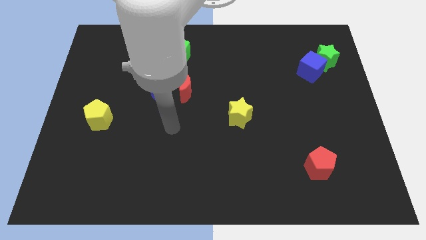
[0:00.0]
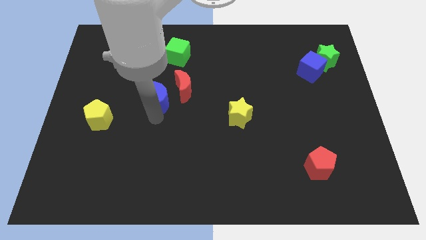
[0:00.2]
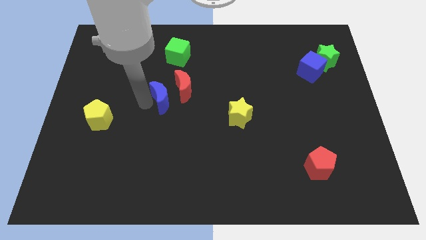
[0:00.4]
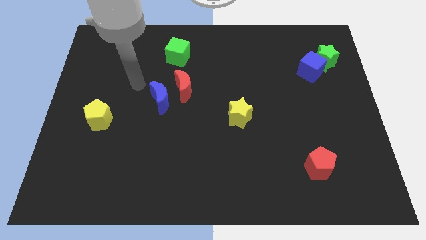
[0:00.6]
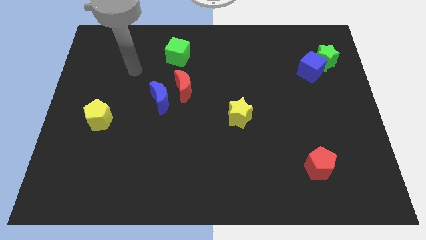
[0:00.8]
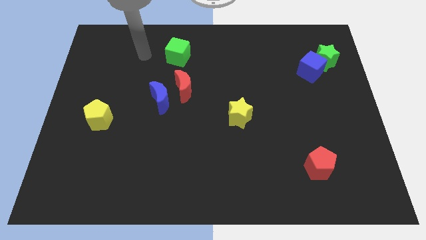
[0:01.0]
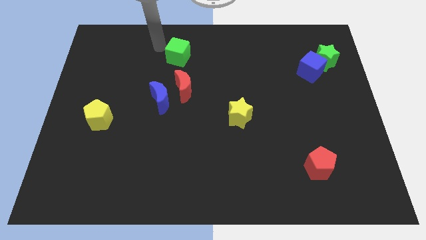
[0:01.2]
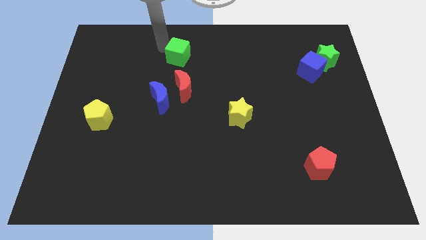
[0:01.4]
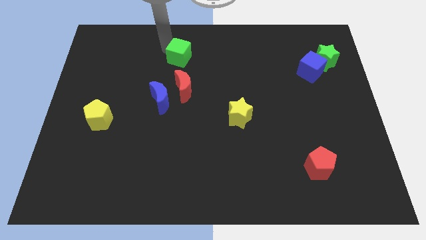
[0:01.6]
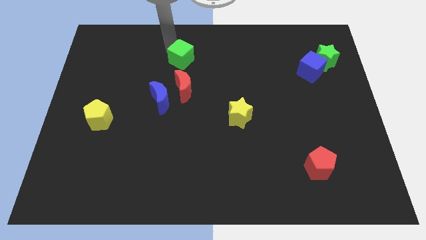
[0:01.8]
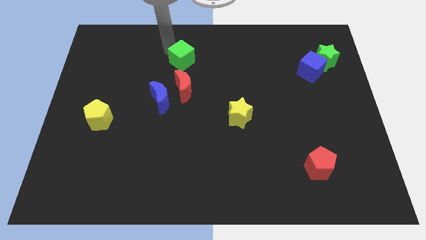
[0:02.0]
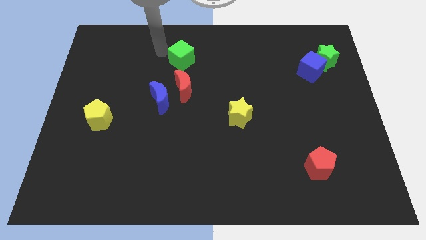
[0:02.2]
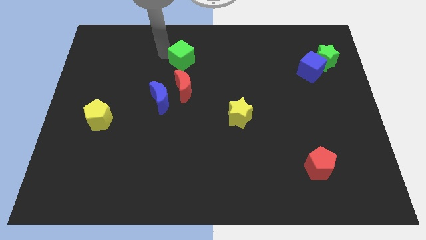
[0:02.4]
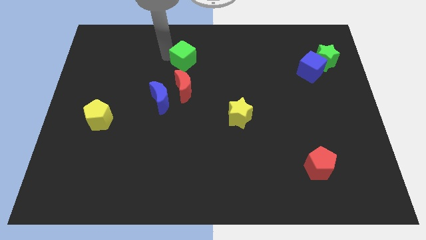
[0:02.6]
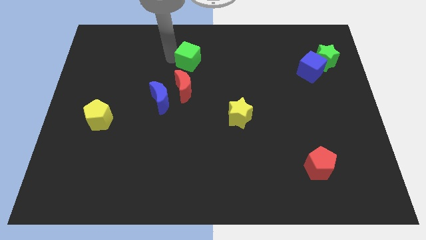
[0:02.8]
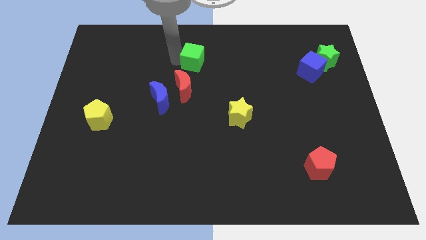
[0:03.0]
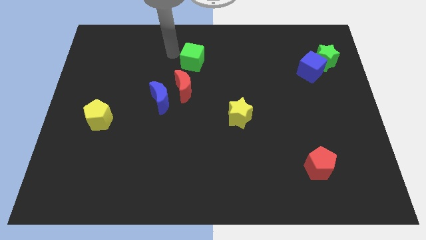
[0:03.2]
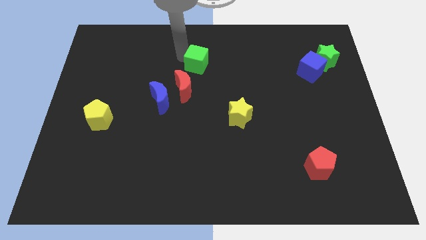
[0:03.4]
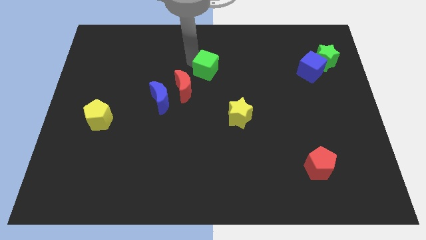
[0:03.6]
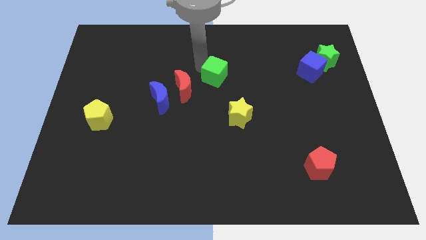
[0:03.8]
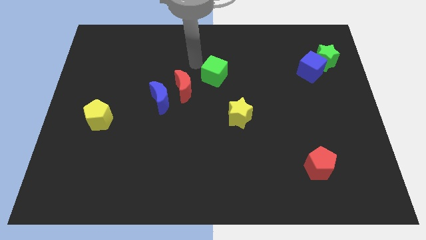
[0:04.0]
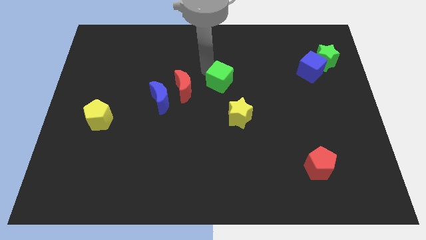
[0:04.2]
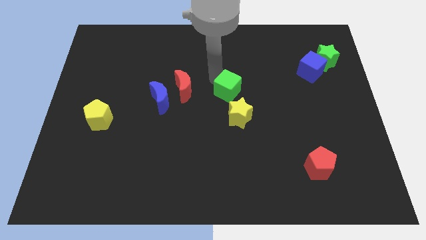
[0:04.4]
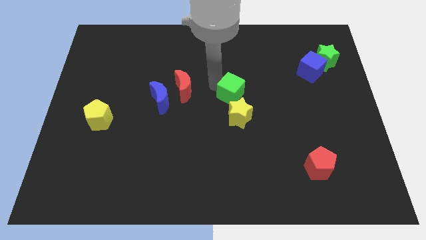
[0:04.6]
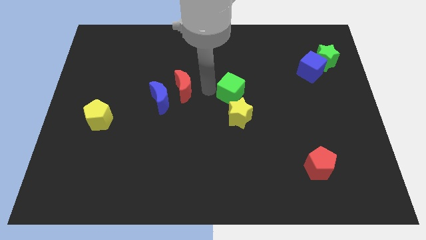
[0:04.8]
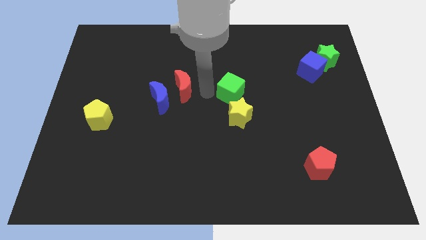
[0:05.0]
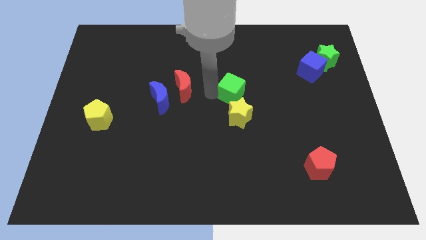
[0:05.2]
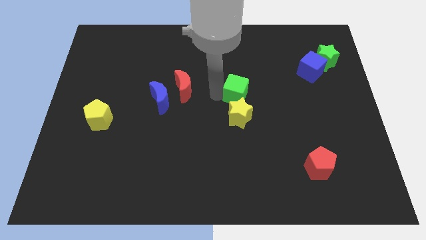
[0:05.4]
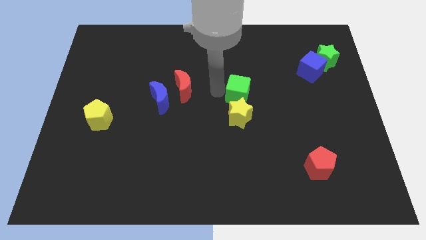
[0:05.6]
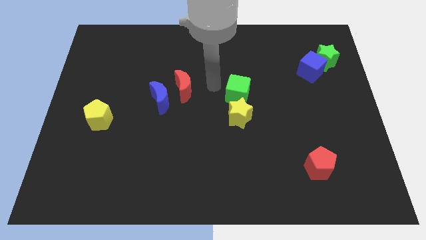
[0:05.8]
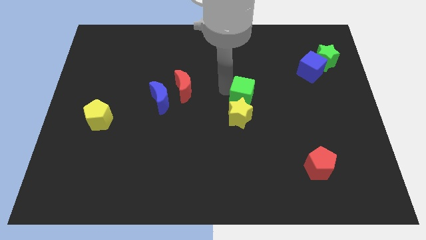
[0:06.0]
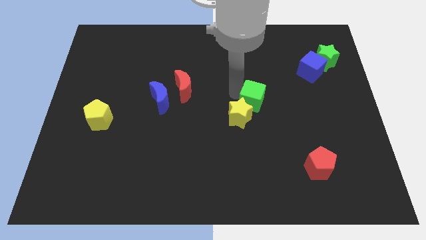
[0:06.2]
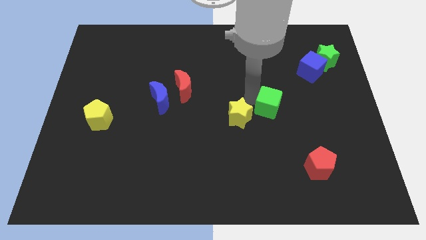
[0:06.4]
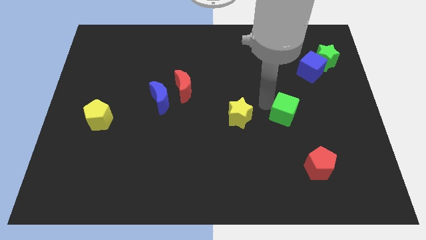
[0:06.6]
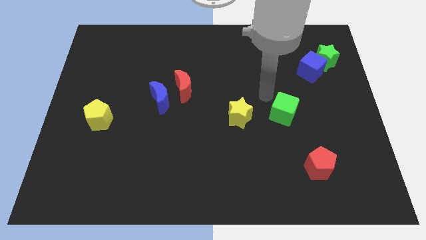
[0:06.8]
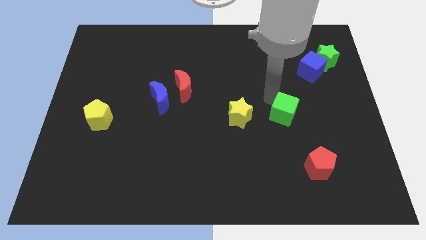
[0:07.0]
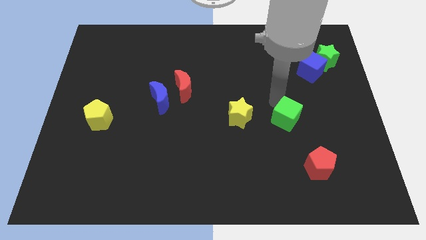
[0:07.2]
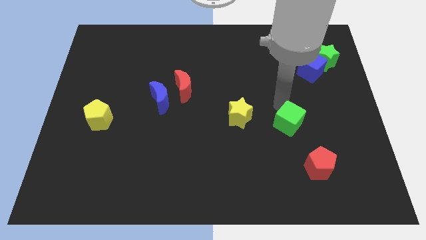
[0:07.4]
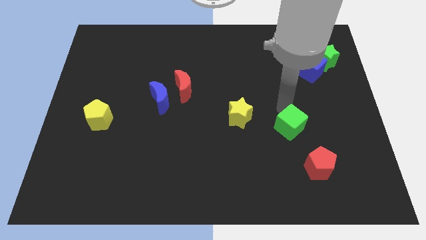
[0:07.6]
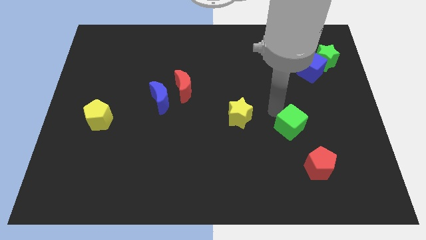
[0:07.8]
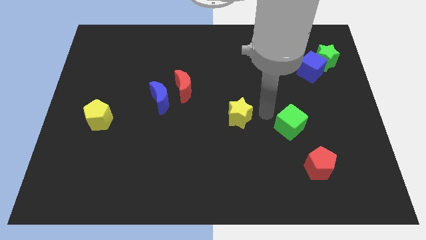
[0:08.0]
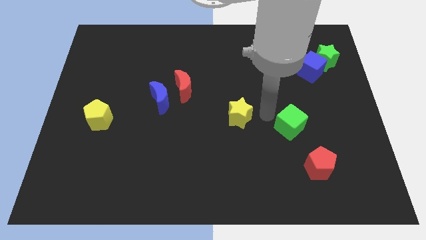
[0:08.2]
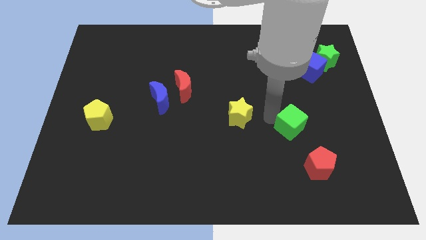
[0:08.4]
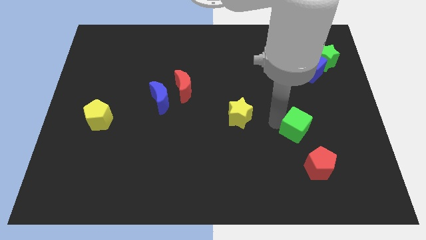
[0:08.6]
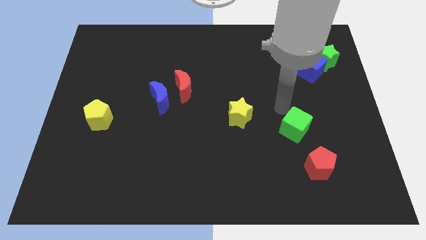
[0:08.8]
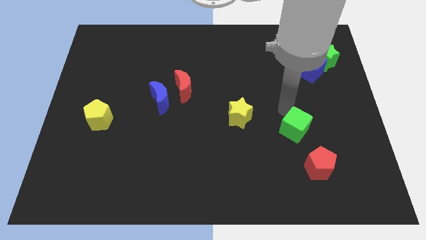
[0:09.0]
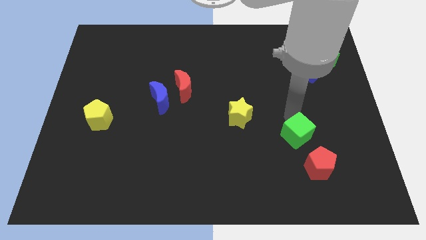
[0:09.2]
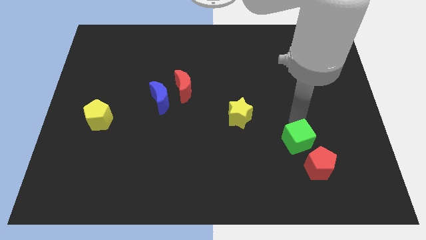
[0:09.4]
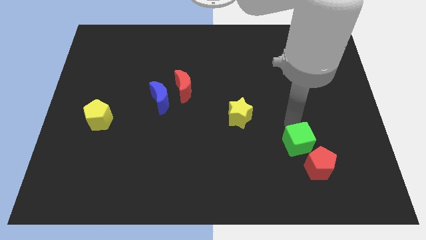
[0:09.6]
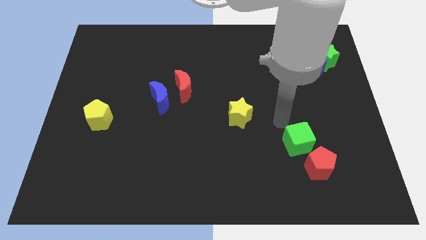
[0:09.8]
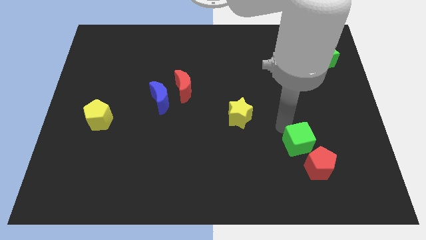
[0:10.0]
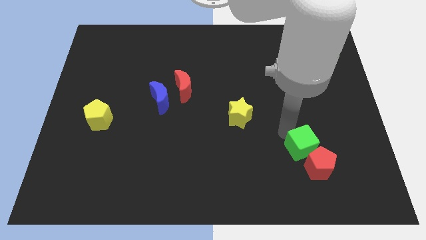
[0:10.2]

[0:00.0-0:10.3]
push the green cube to the red pentagon

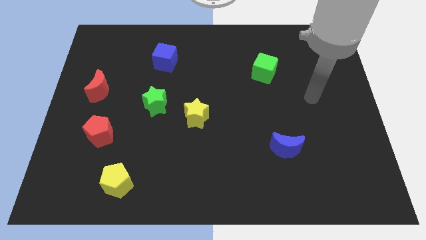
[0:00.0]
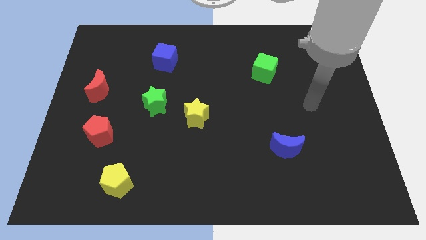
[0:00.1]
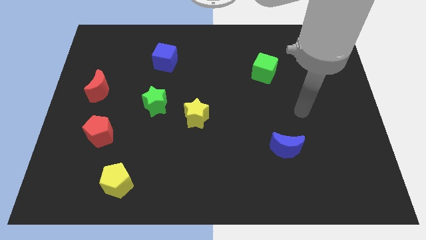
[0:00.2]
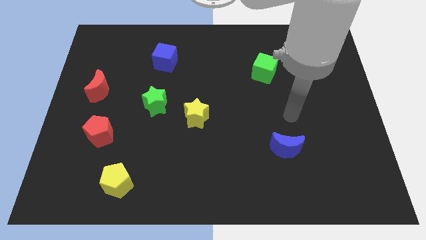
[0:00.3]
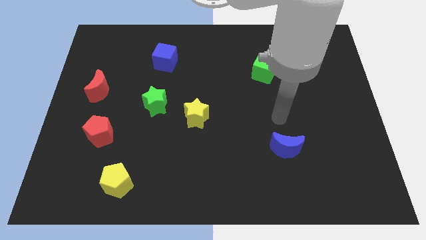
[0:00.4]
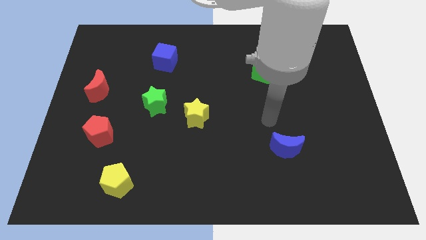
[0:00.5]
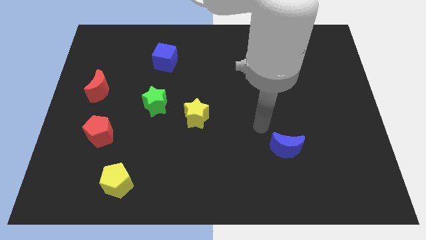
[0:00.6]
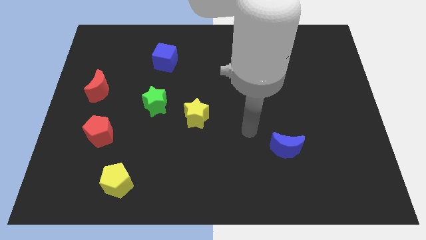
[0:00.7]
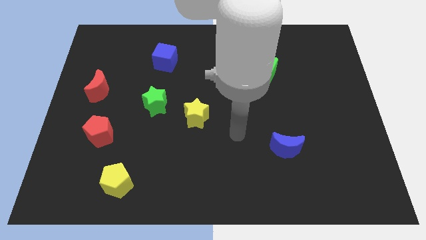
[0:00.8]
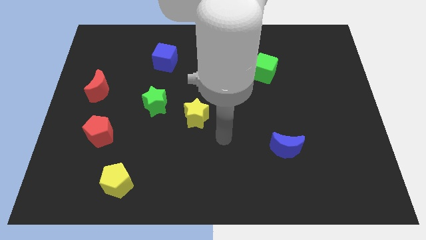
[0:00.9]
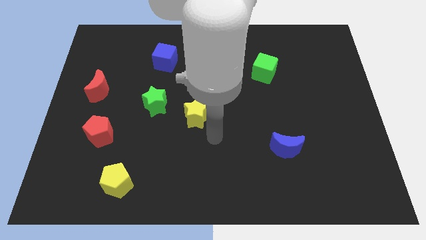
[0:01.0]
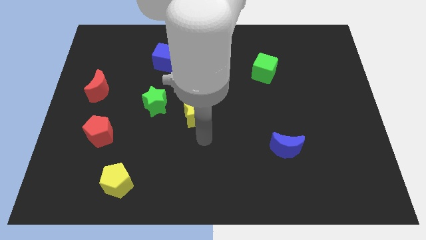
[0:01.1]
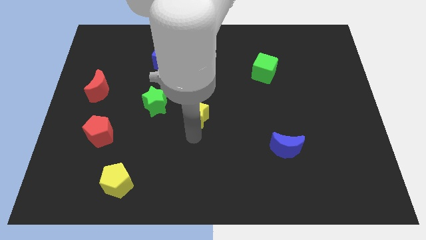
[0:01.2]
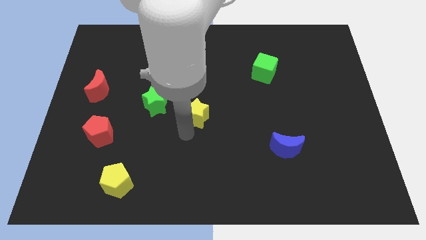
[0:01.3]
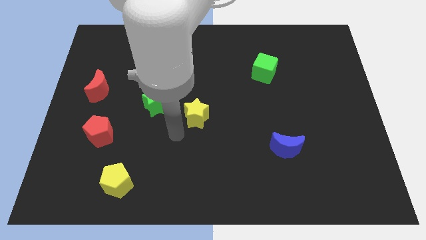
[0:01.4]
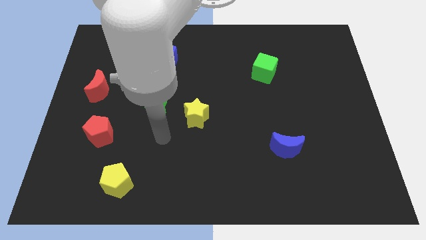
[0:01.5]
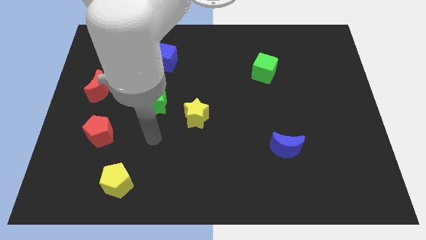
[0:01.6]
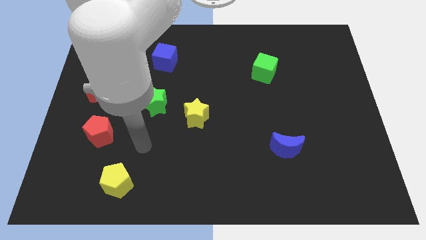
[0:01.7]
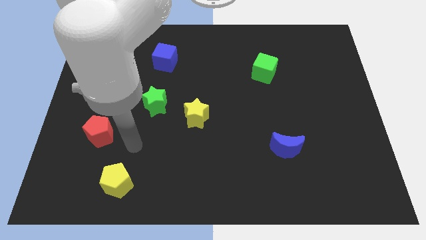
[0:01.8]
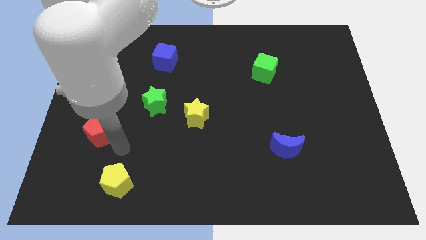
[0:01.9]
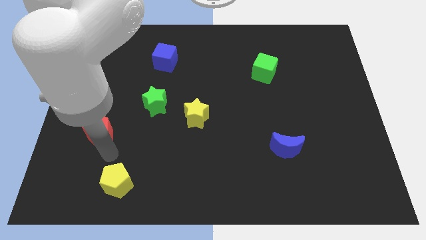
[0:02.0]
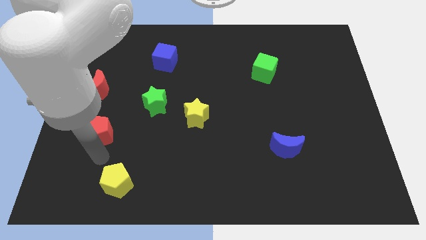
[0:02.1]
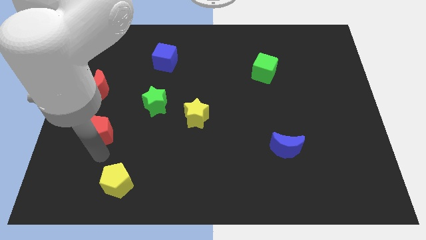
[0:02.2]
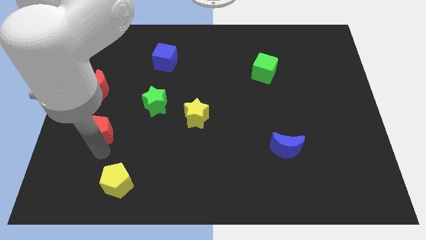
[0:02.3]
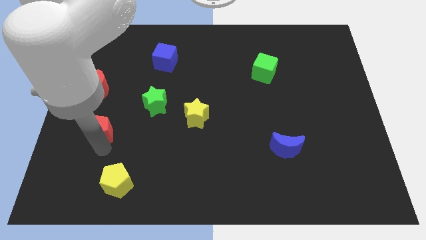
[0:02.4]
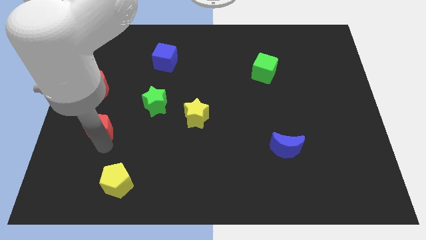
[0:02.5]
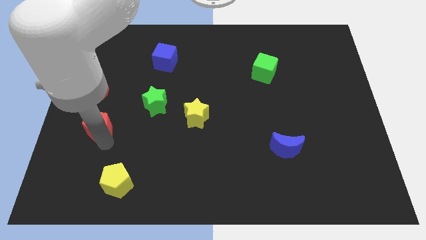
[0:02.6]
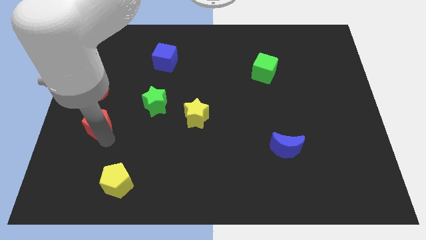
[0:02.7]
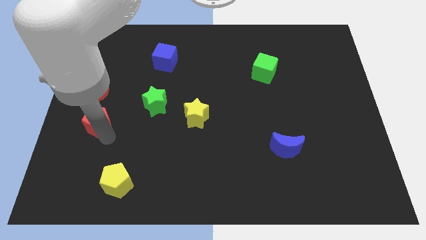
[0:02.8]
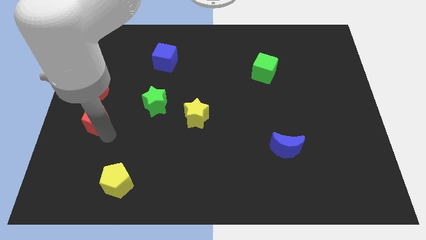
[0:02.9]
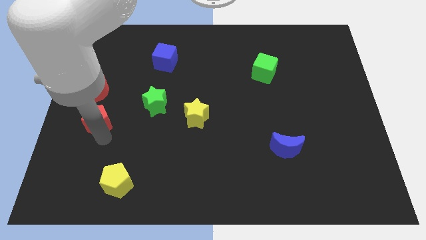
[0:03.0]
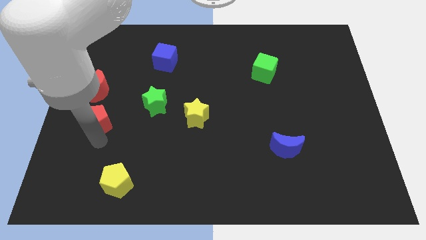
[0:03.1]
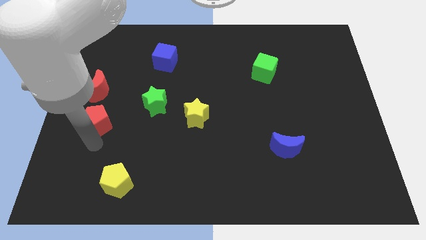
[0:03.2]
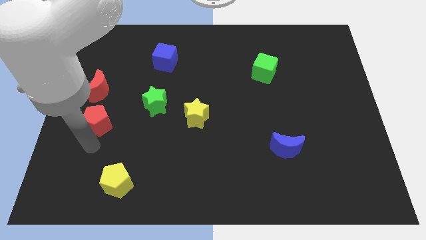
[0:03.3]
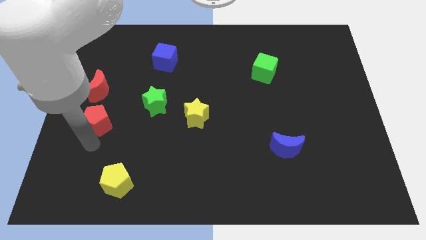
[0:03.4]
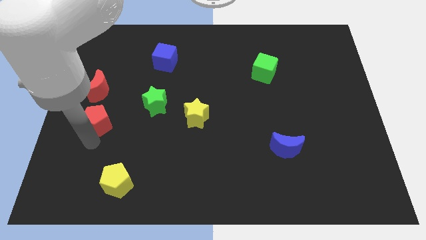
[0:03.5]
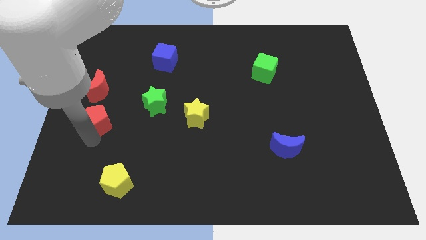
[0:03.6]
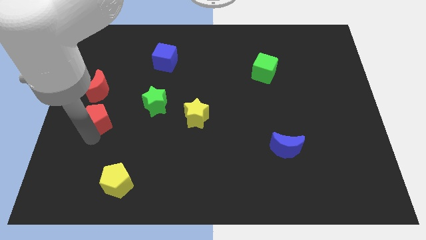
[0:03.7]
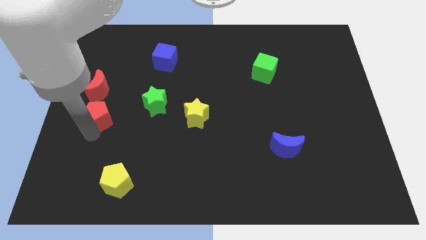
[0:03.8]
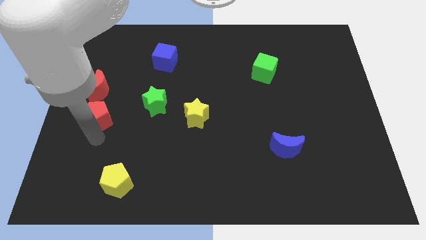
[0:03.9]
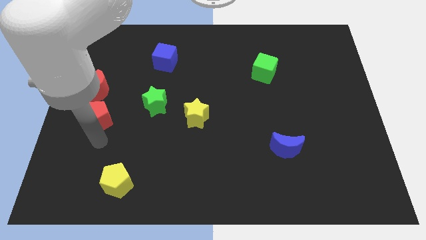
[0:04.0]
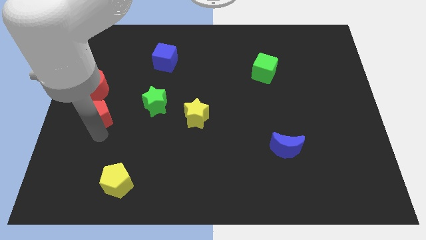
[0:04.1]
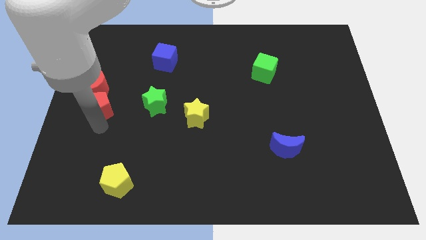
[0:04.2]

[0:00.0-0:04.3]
slide the red pentagon close to the red moon
